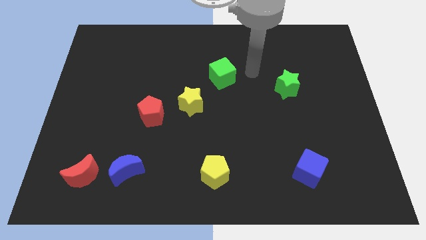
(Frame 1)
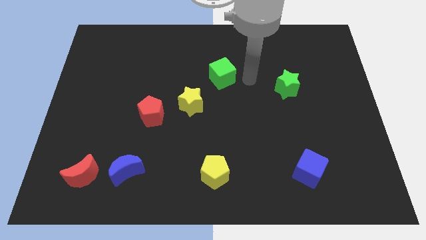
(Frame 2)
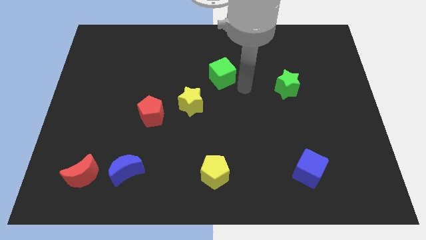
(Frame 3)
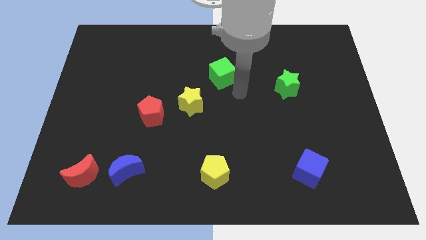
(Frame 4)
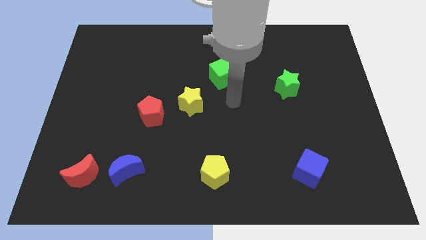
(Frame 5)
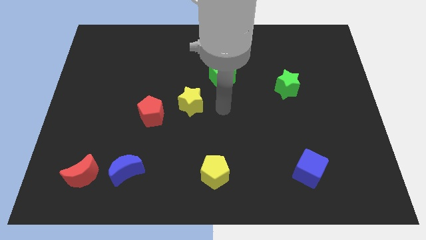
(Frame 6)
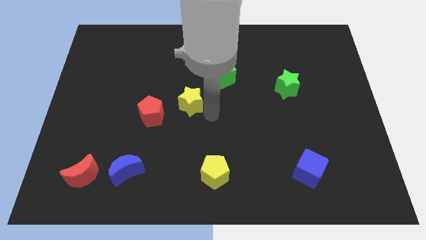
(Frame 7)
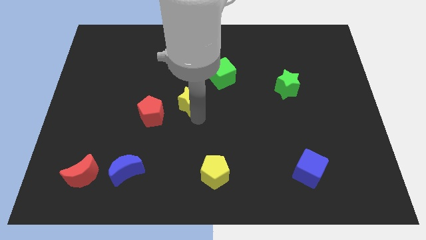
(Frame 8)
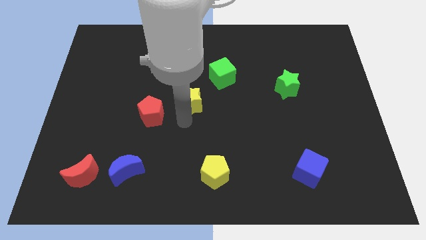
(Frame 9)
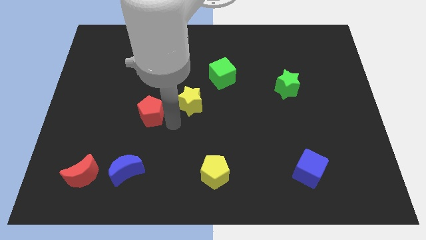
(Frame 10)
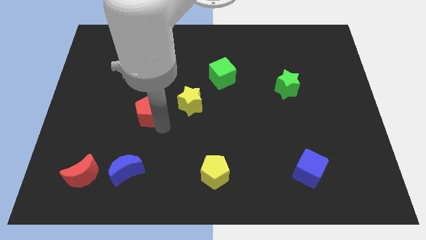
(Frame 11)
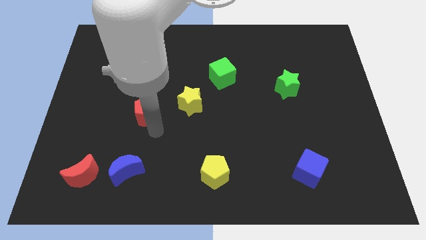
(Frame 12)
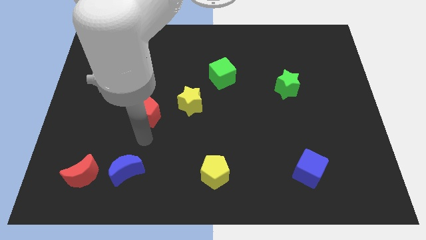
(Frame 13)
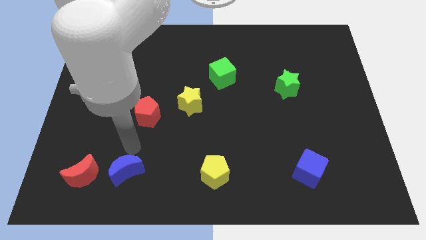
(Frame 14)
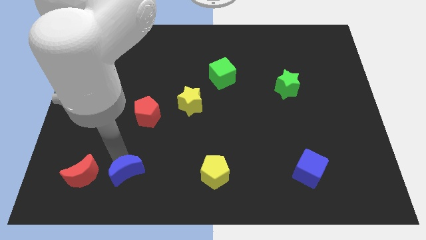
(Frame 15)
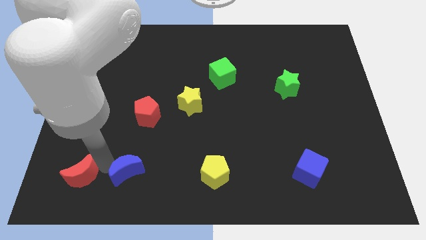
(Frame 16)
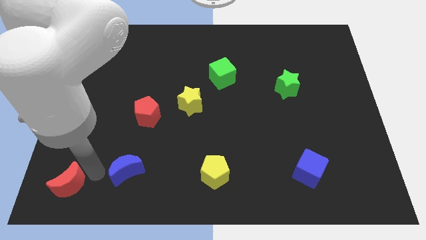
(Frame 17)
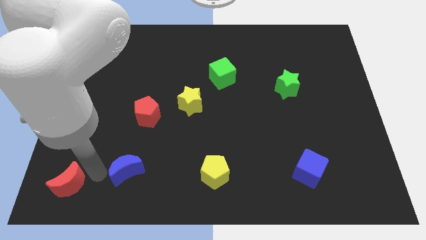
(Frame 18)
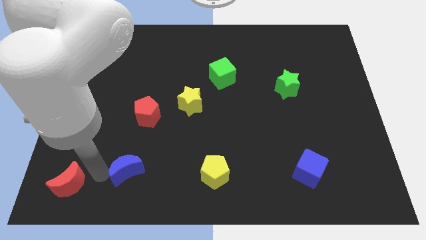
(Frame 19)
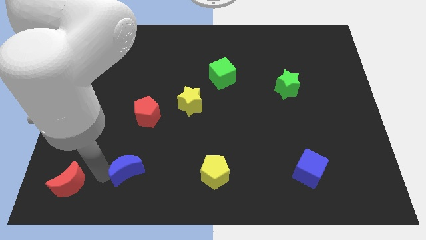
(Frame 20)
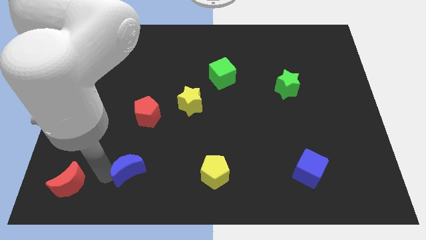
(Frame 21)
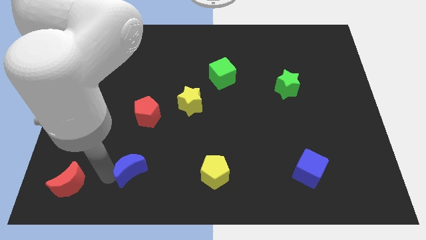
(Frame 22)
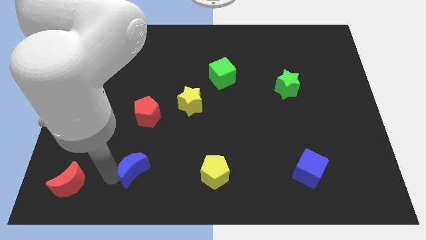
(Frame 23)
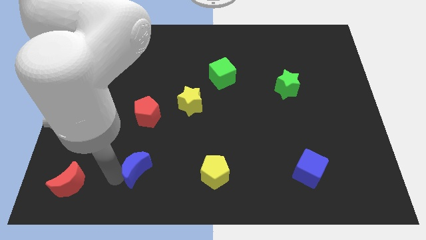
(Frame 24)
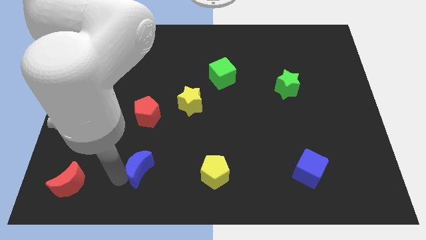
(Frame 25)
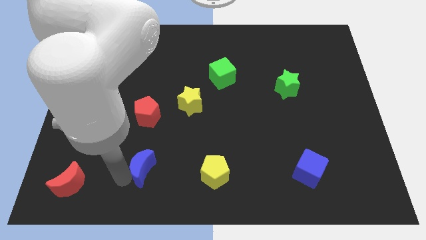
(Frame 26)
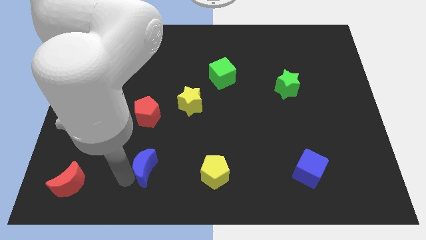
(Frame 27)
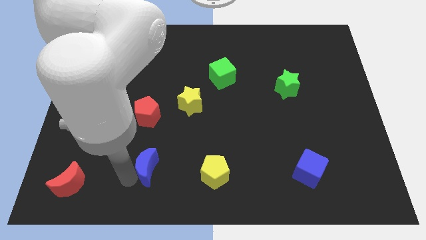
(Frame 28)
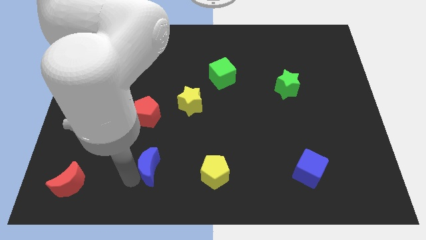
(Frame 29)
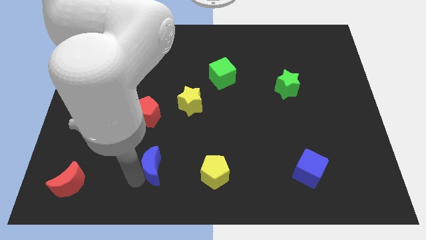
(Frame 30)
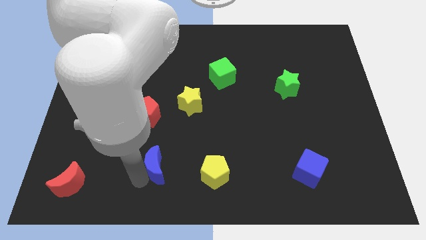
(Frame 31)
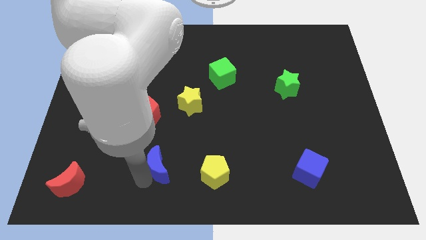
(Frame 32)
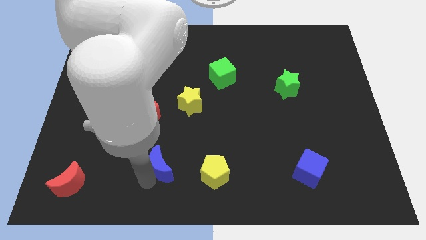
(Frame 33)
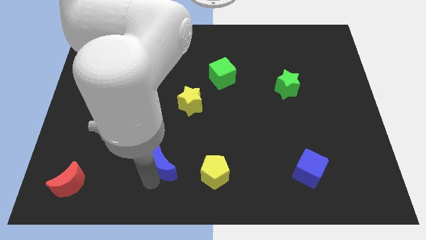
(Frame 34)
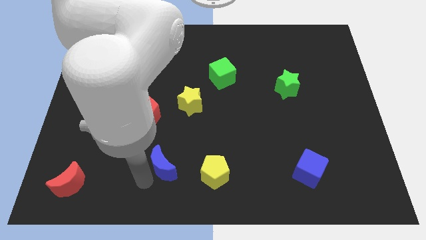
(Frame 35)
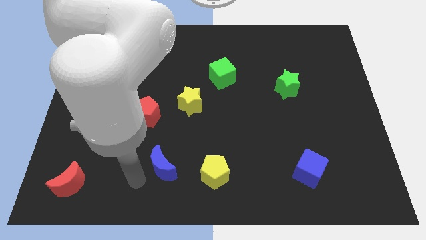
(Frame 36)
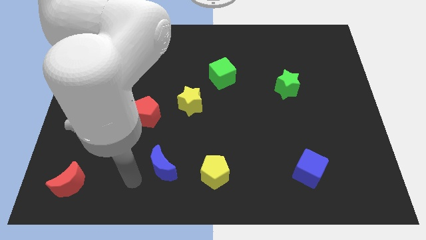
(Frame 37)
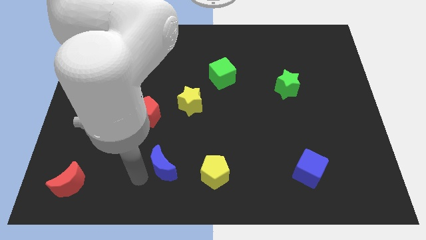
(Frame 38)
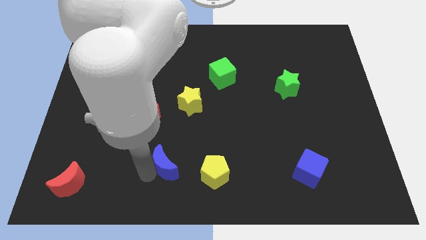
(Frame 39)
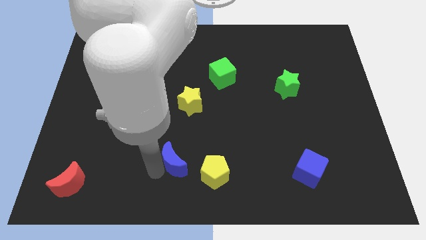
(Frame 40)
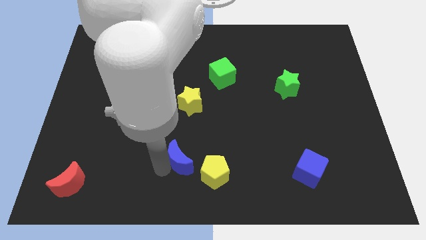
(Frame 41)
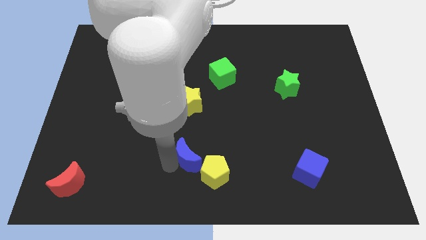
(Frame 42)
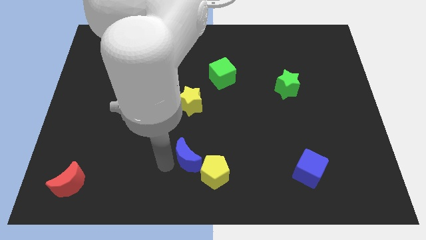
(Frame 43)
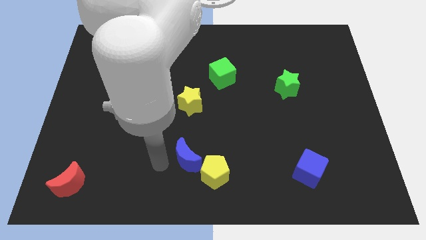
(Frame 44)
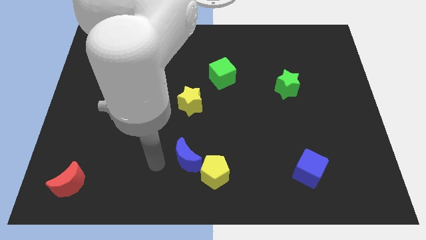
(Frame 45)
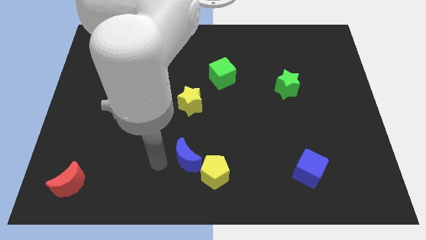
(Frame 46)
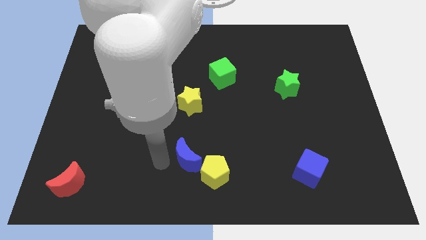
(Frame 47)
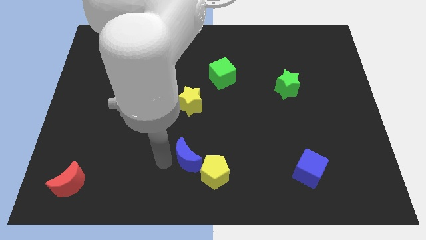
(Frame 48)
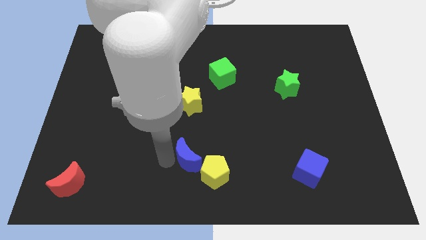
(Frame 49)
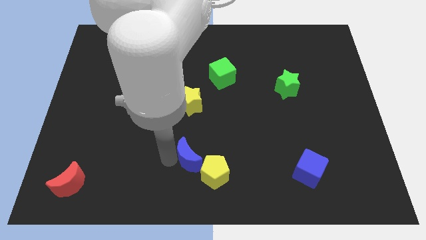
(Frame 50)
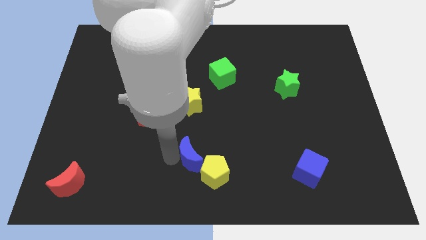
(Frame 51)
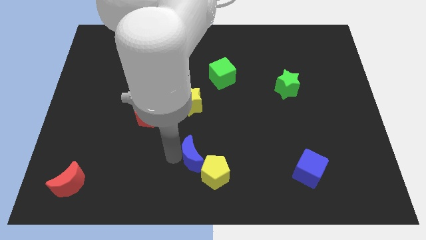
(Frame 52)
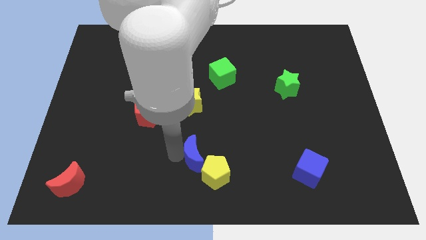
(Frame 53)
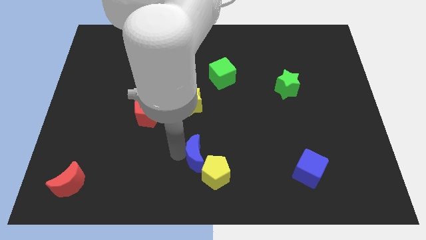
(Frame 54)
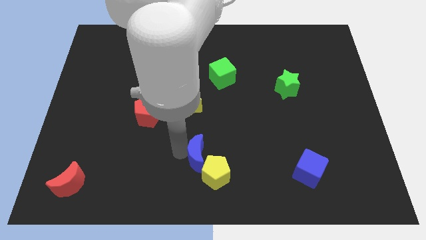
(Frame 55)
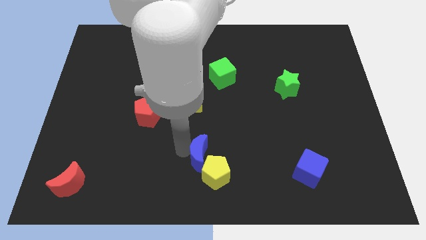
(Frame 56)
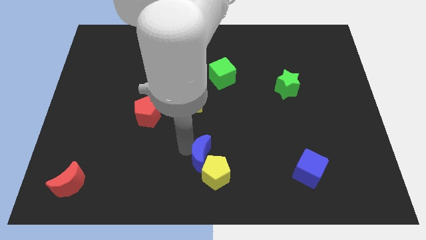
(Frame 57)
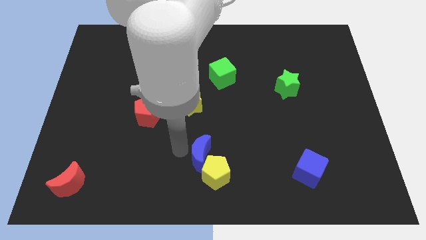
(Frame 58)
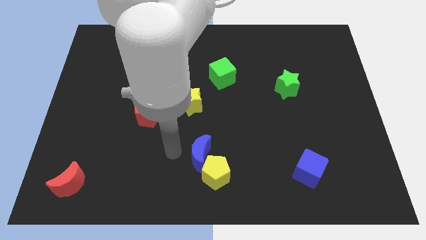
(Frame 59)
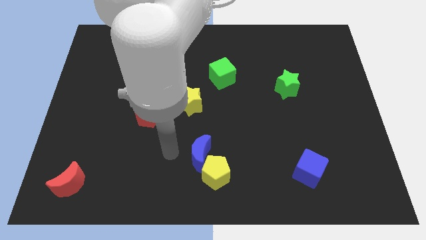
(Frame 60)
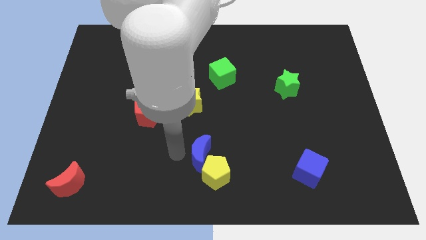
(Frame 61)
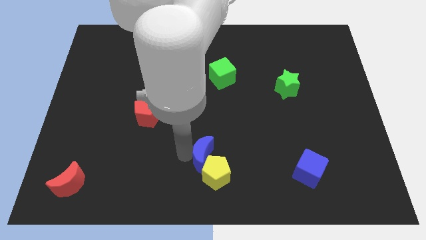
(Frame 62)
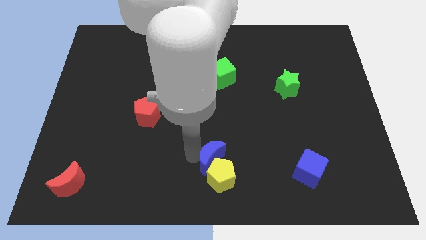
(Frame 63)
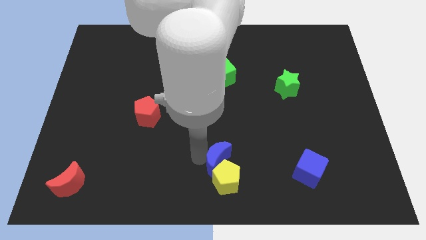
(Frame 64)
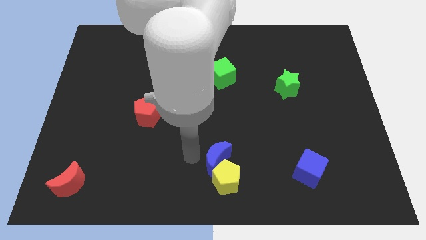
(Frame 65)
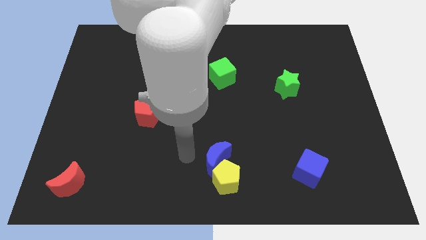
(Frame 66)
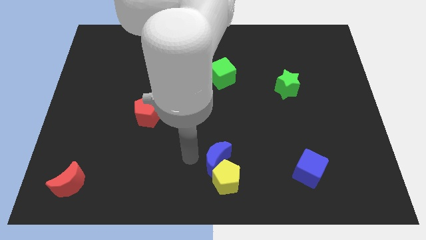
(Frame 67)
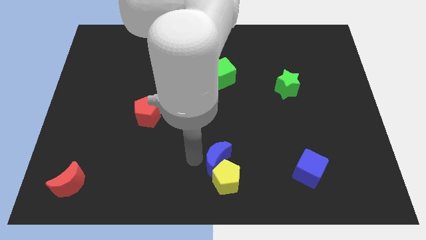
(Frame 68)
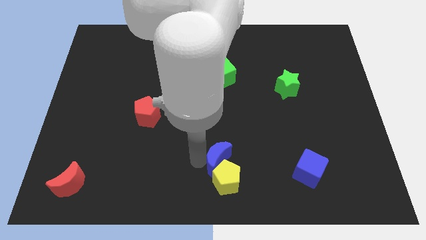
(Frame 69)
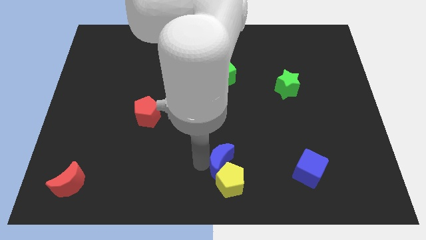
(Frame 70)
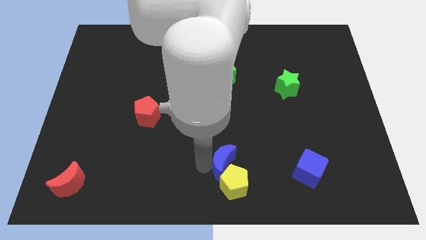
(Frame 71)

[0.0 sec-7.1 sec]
push the blue moon to the right

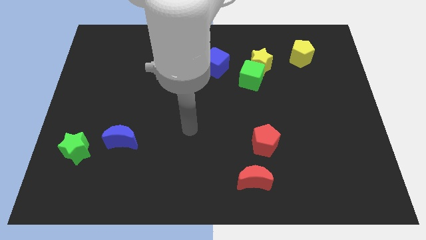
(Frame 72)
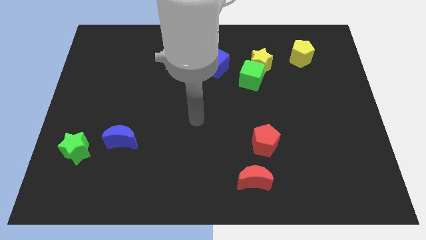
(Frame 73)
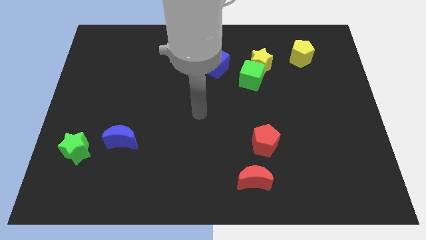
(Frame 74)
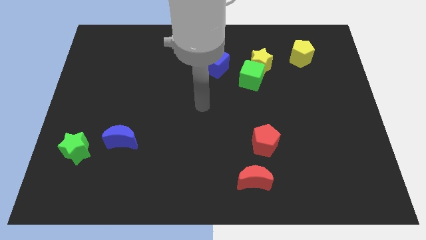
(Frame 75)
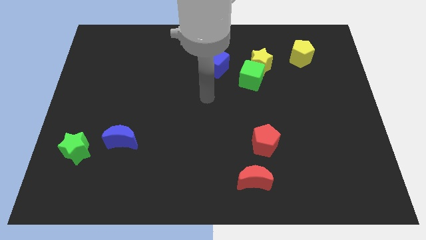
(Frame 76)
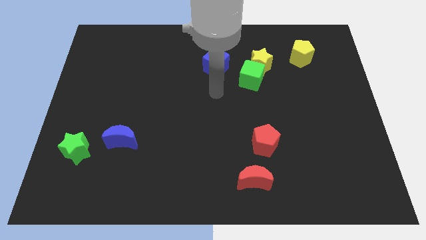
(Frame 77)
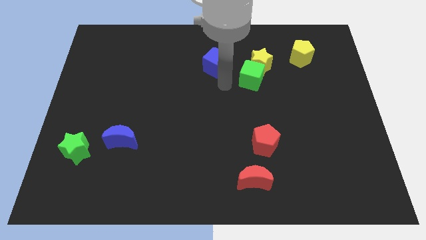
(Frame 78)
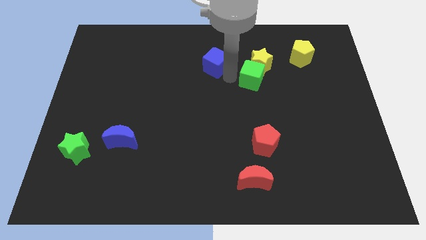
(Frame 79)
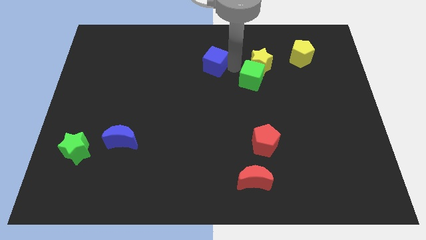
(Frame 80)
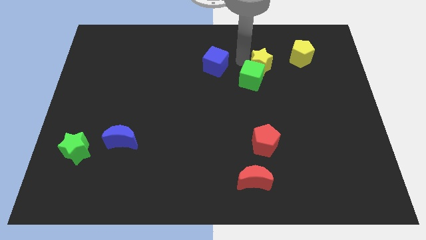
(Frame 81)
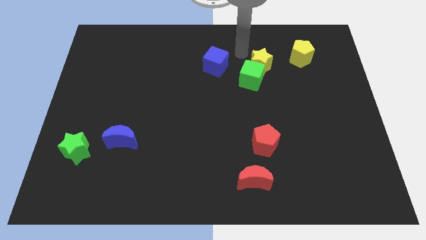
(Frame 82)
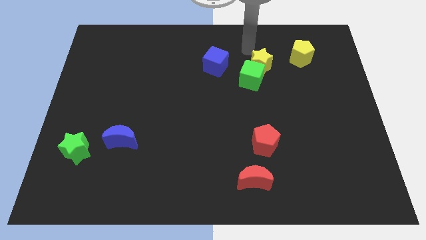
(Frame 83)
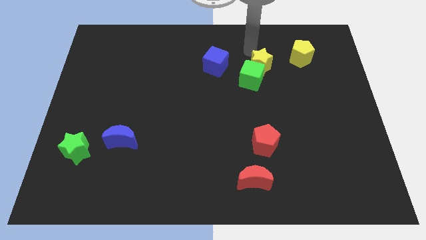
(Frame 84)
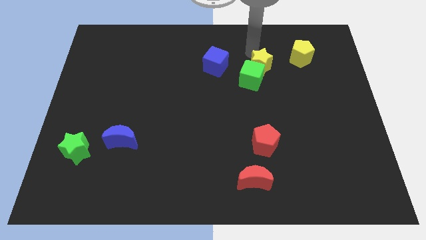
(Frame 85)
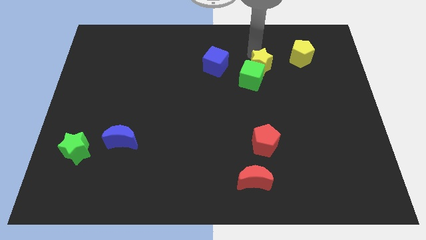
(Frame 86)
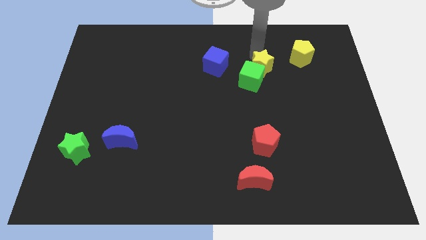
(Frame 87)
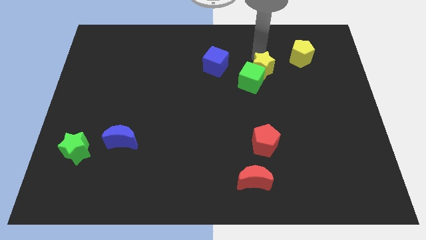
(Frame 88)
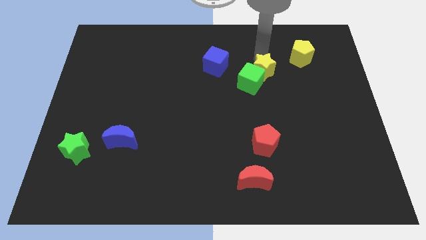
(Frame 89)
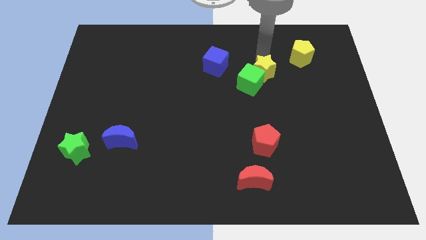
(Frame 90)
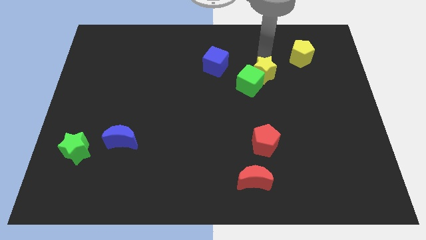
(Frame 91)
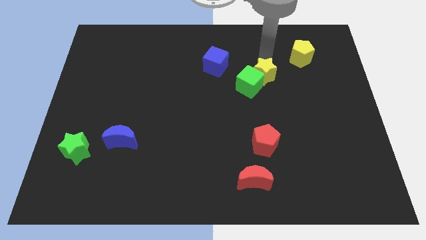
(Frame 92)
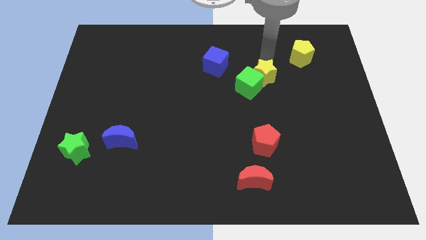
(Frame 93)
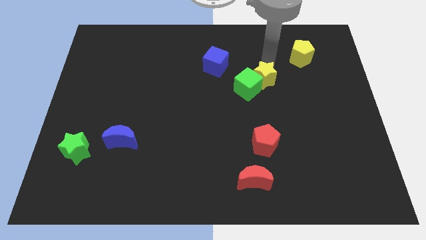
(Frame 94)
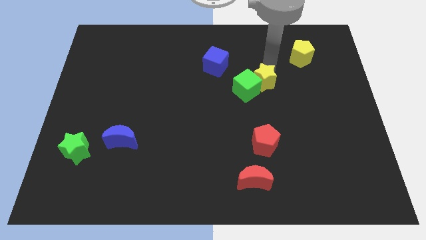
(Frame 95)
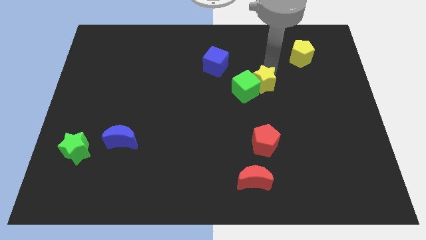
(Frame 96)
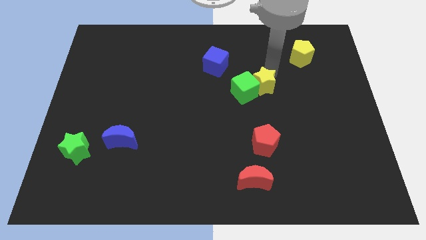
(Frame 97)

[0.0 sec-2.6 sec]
slightly slide the yellow star downwards
